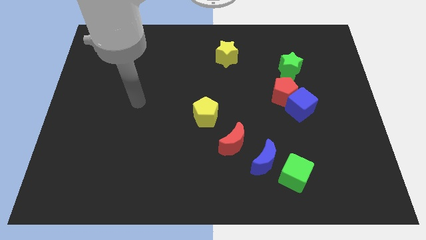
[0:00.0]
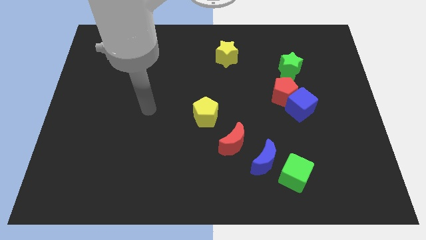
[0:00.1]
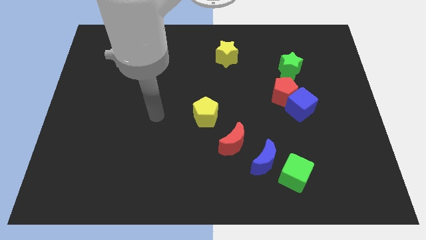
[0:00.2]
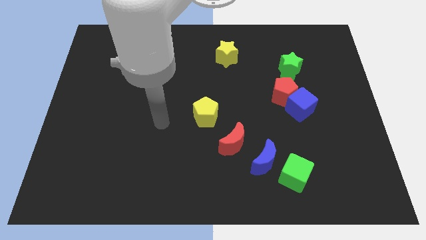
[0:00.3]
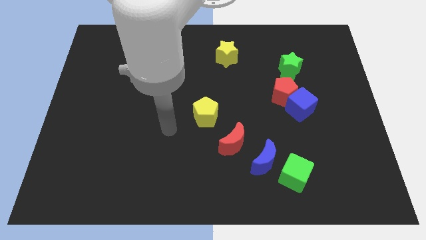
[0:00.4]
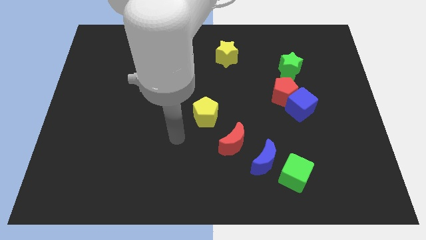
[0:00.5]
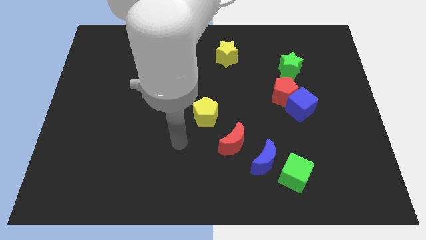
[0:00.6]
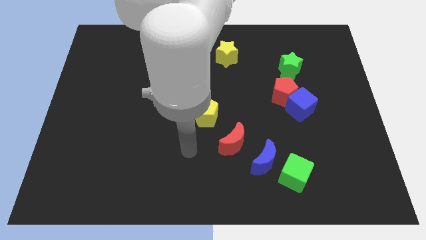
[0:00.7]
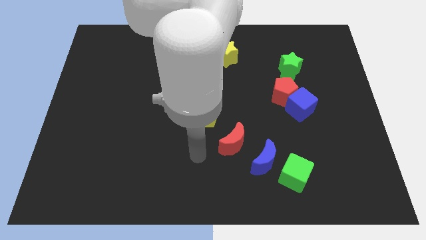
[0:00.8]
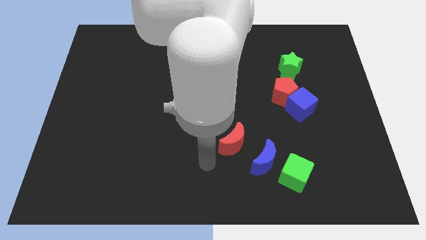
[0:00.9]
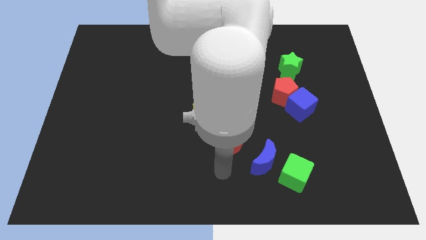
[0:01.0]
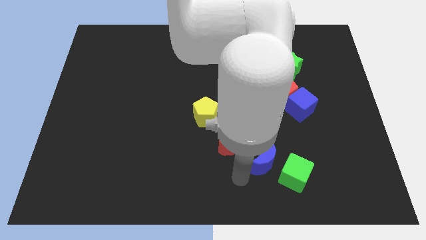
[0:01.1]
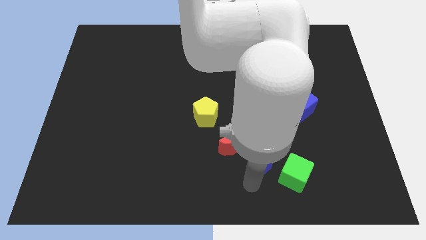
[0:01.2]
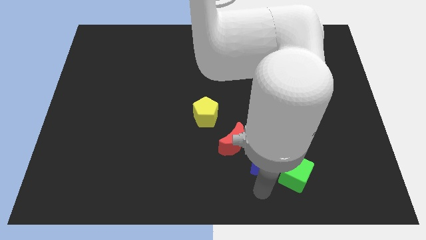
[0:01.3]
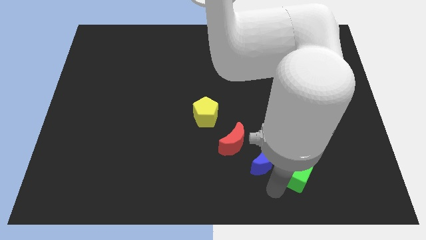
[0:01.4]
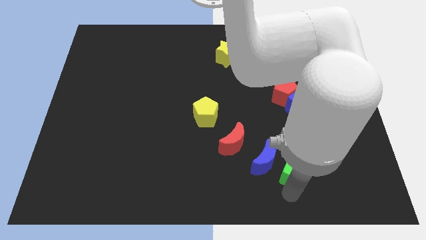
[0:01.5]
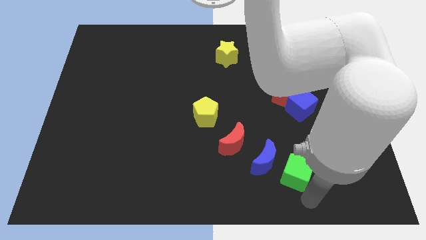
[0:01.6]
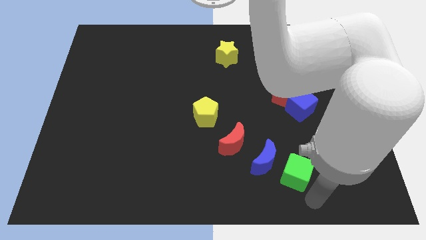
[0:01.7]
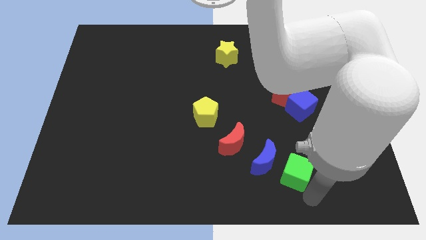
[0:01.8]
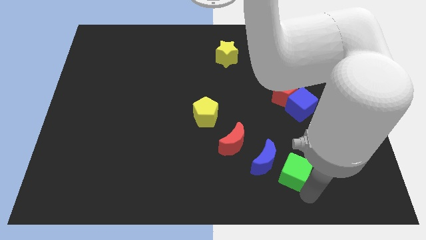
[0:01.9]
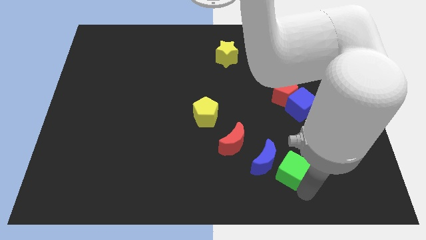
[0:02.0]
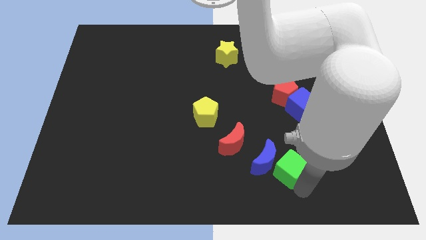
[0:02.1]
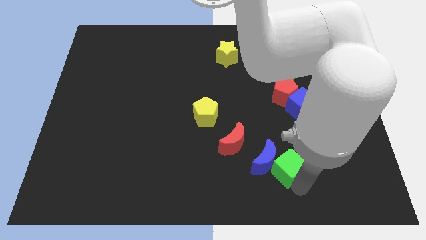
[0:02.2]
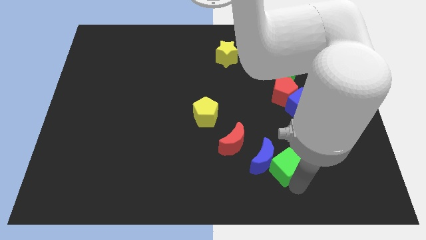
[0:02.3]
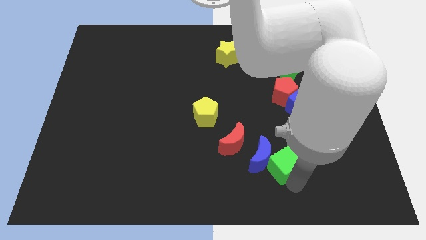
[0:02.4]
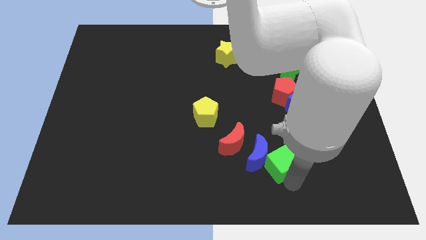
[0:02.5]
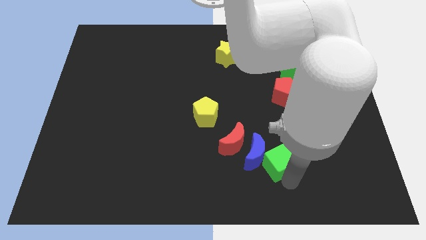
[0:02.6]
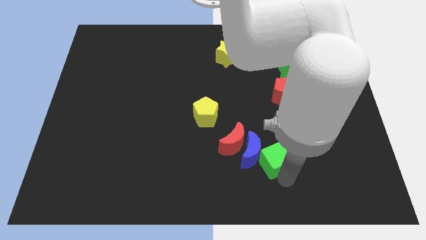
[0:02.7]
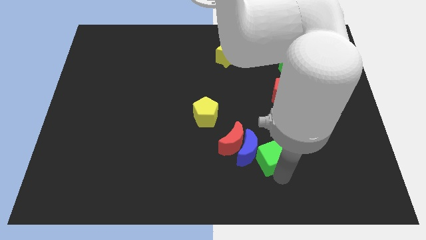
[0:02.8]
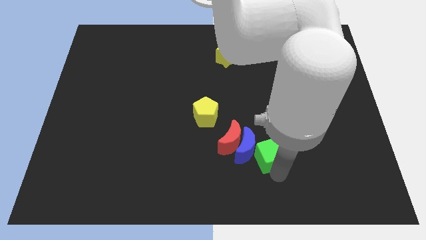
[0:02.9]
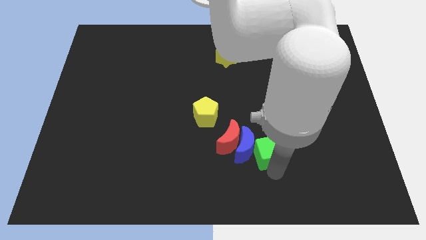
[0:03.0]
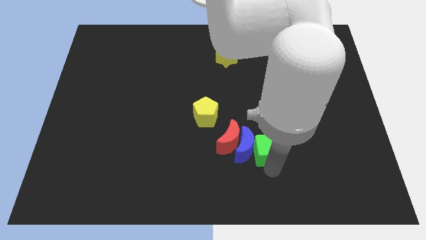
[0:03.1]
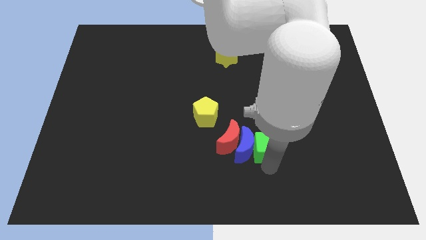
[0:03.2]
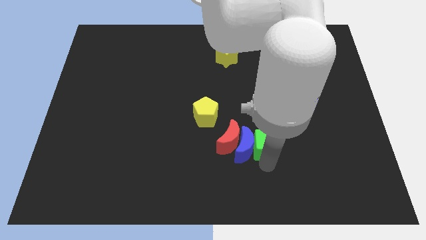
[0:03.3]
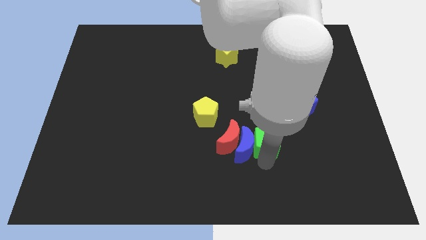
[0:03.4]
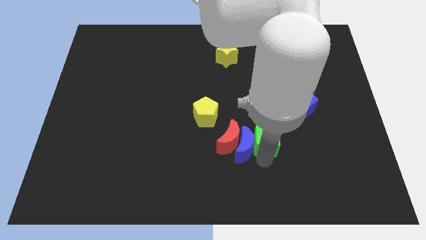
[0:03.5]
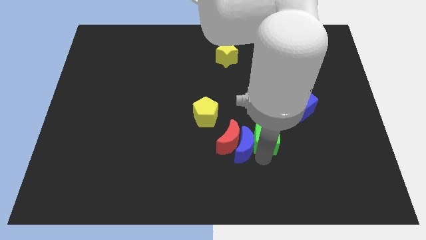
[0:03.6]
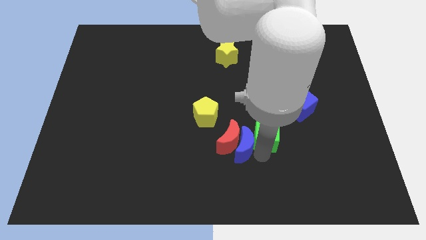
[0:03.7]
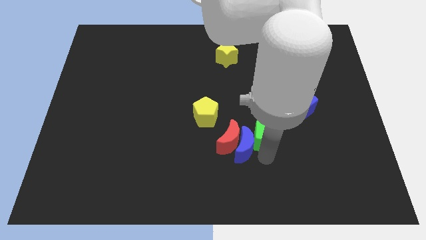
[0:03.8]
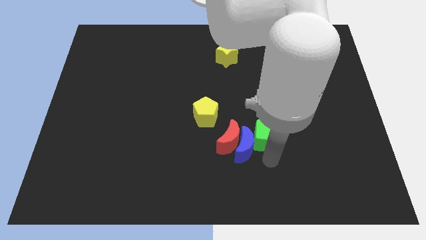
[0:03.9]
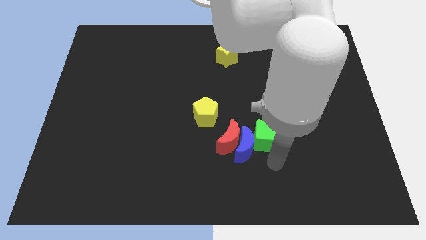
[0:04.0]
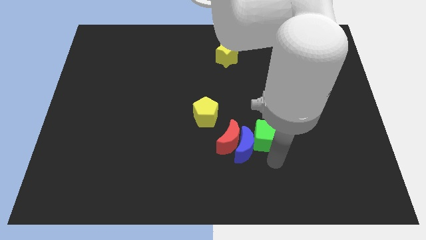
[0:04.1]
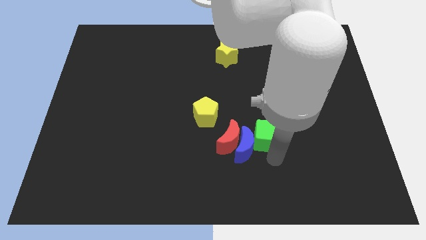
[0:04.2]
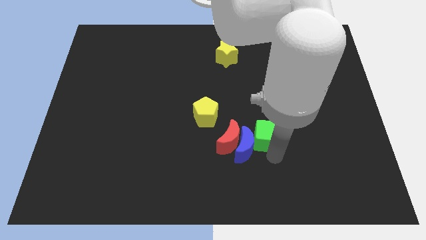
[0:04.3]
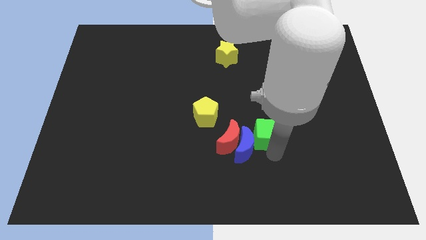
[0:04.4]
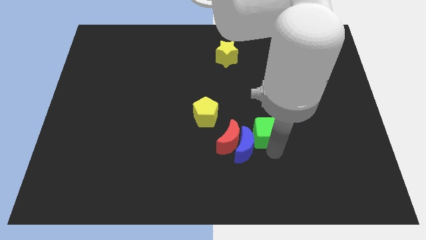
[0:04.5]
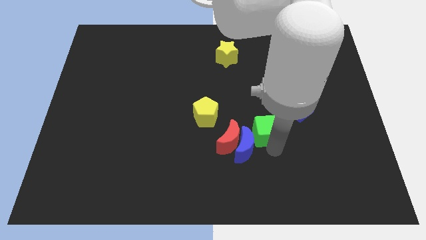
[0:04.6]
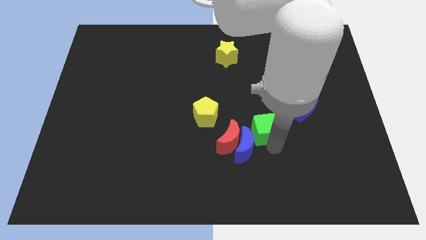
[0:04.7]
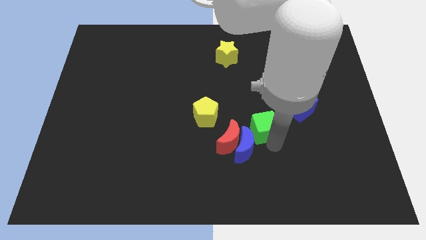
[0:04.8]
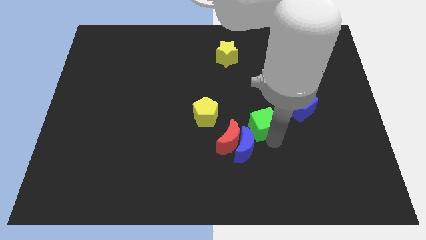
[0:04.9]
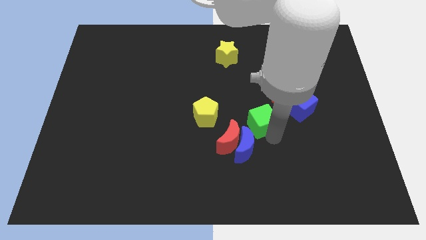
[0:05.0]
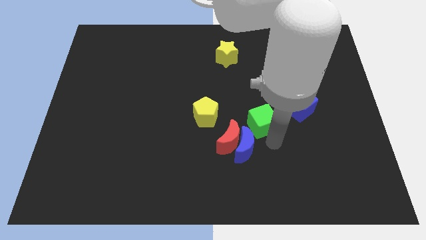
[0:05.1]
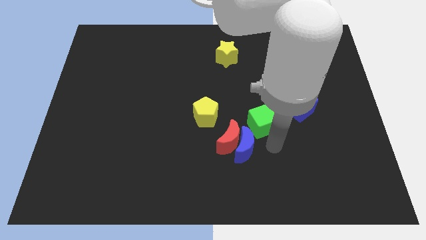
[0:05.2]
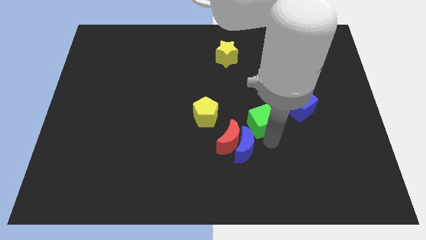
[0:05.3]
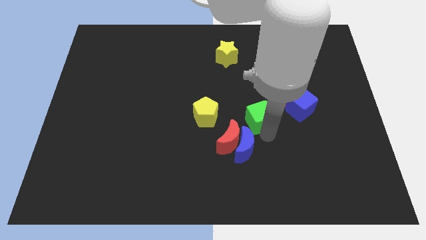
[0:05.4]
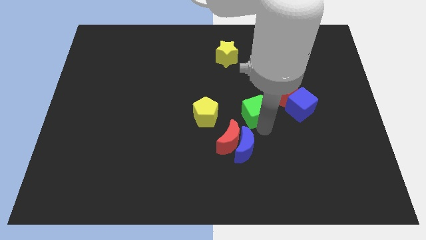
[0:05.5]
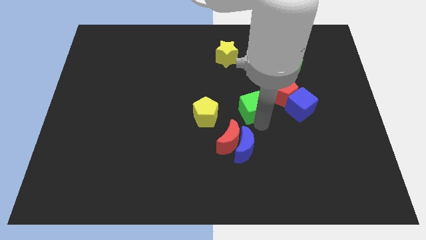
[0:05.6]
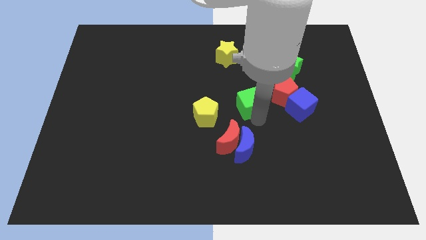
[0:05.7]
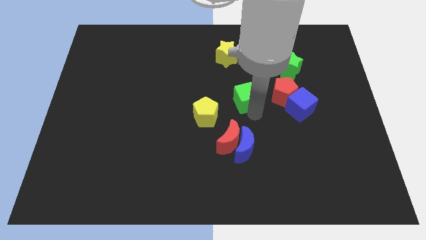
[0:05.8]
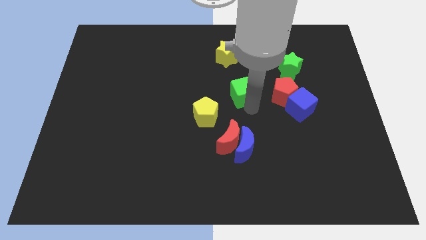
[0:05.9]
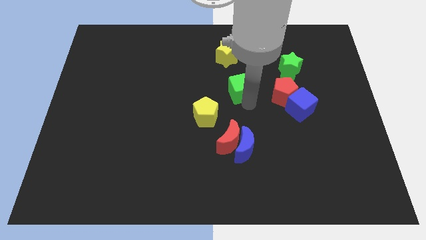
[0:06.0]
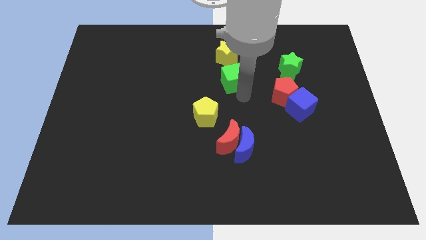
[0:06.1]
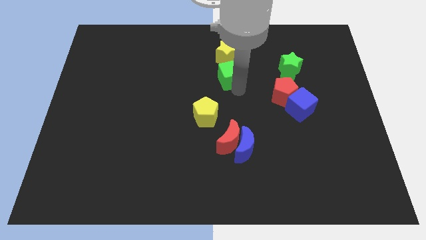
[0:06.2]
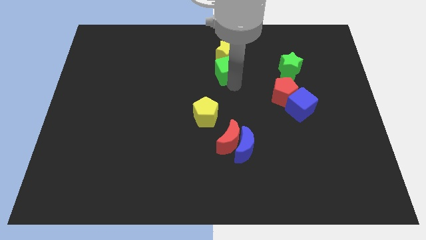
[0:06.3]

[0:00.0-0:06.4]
push the green cube next to the yellow star

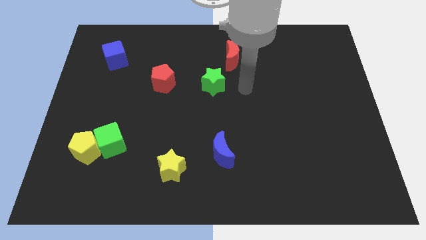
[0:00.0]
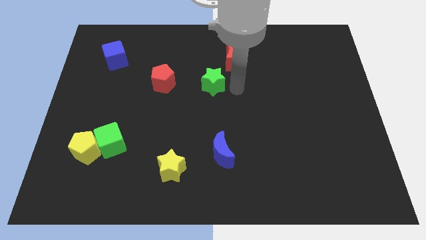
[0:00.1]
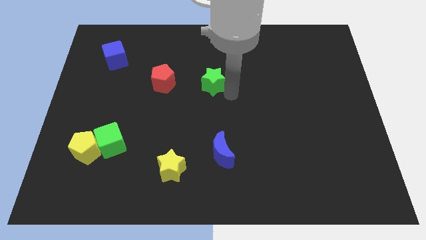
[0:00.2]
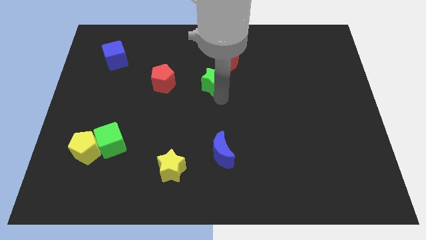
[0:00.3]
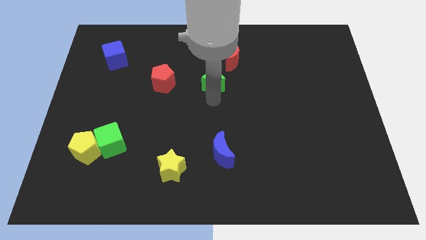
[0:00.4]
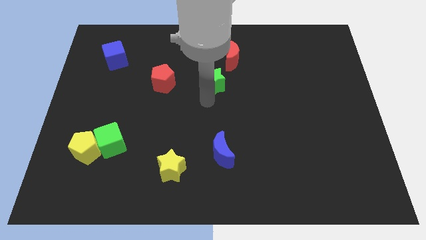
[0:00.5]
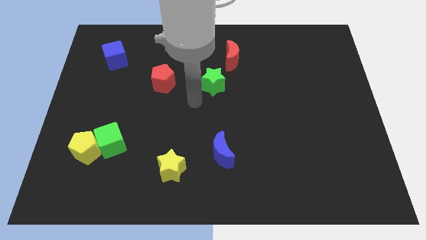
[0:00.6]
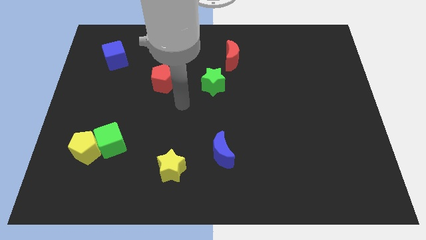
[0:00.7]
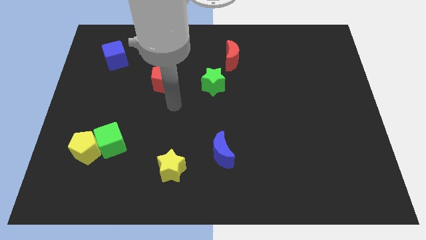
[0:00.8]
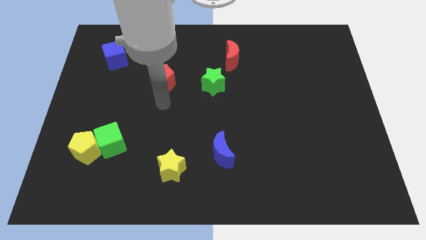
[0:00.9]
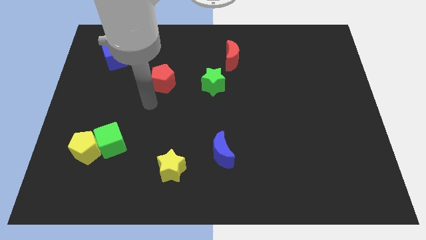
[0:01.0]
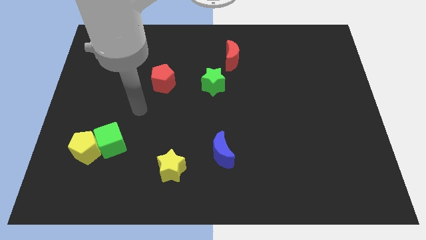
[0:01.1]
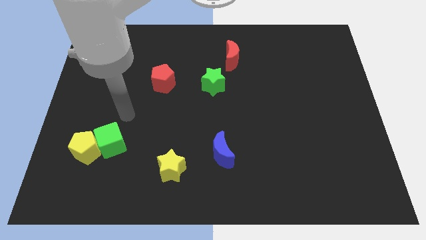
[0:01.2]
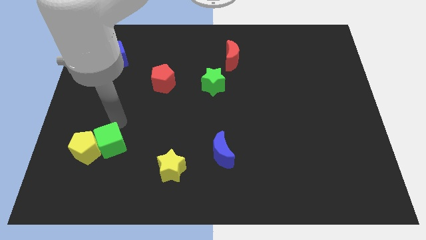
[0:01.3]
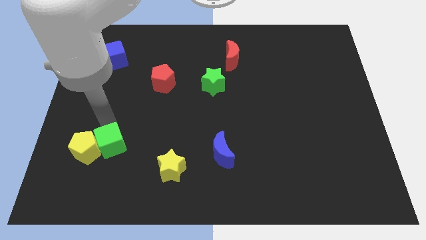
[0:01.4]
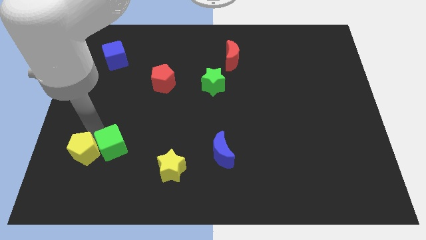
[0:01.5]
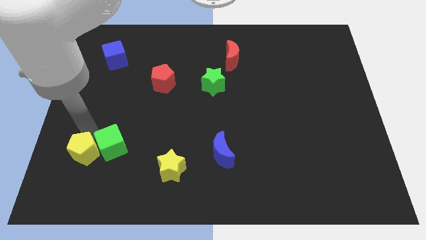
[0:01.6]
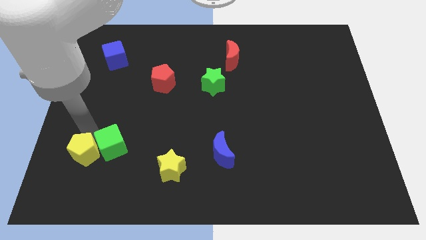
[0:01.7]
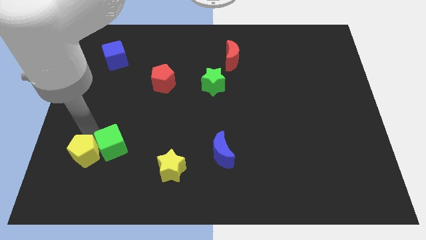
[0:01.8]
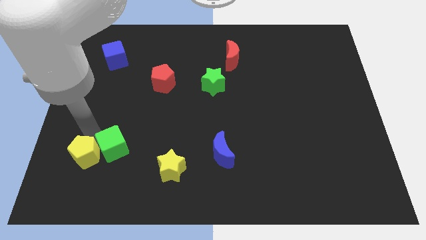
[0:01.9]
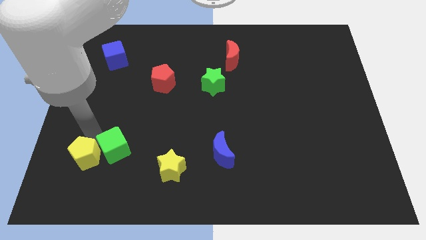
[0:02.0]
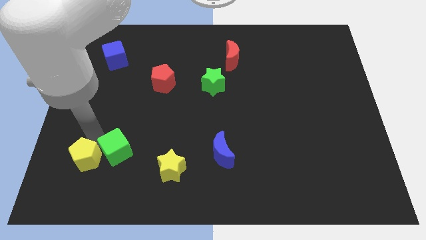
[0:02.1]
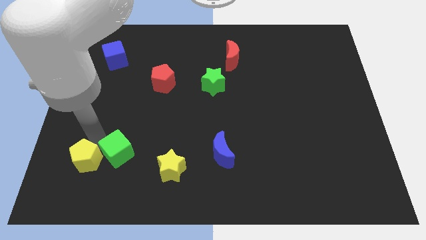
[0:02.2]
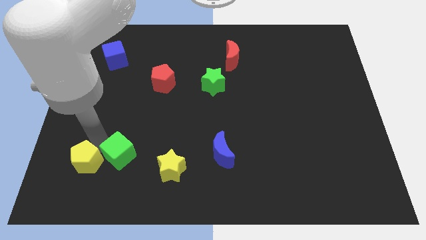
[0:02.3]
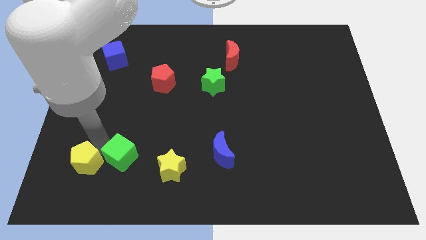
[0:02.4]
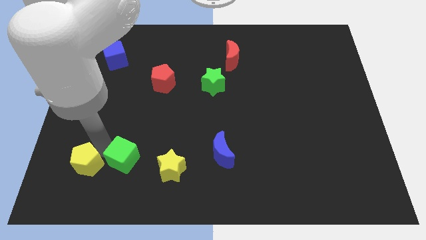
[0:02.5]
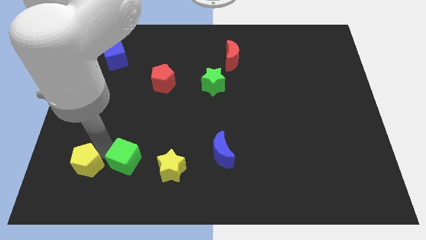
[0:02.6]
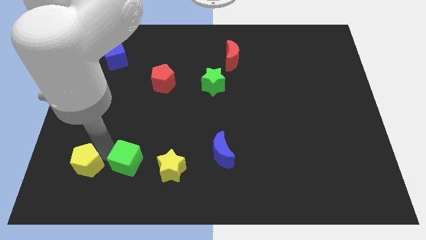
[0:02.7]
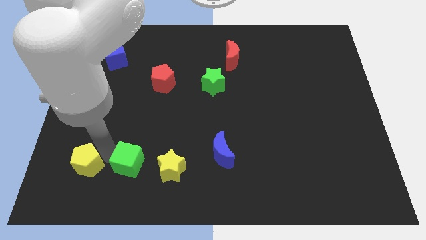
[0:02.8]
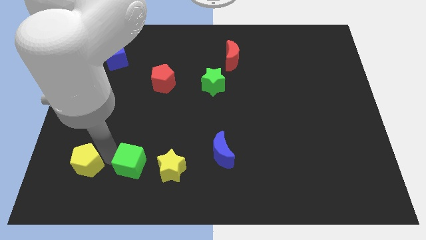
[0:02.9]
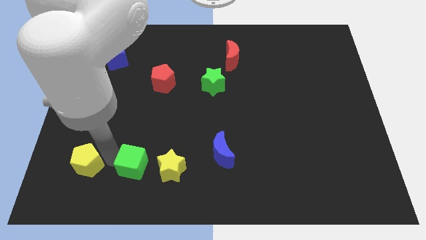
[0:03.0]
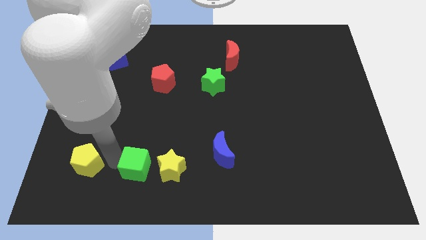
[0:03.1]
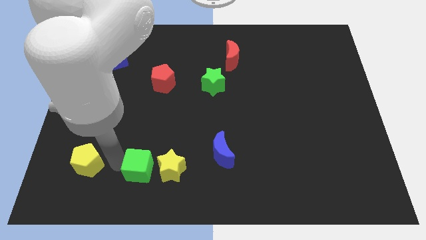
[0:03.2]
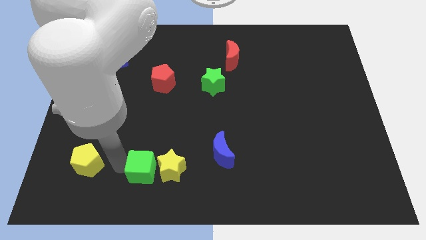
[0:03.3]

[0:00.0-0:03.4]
move the green cube towards the yellow star
